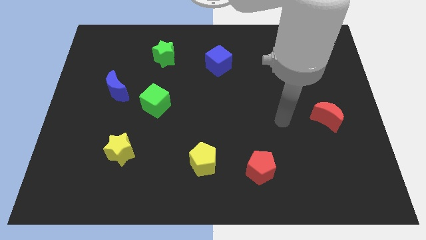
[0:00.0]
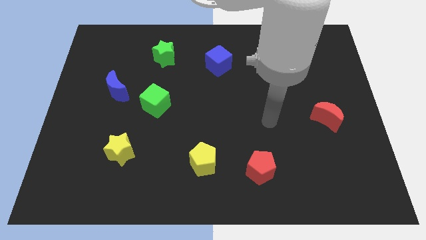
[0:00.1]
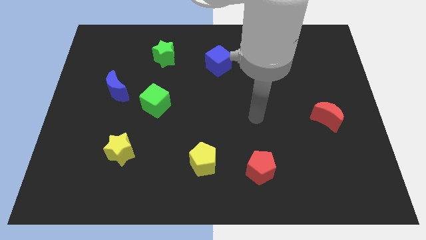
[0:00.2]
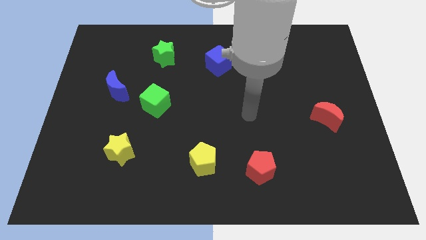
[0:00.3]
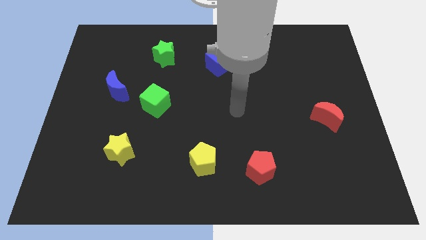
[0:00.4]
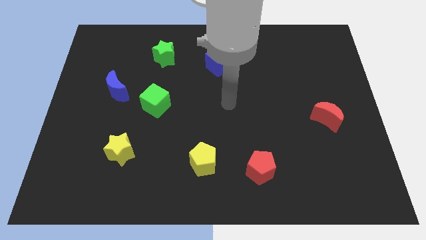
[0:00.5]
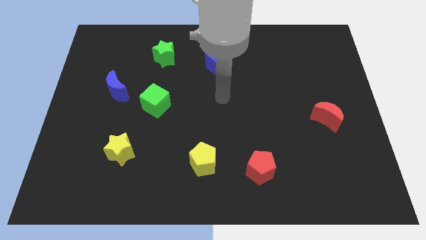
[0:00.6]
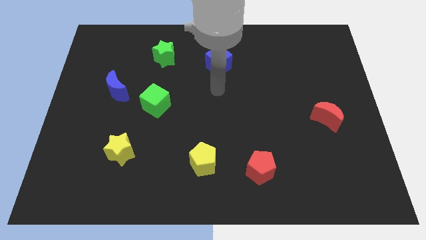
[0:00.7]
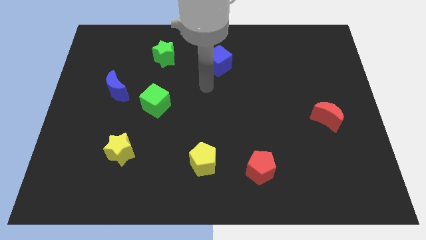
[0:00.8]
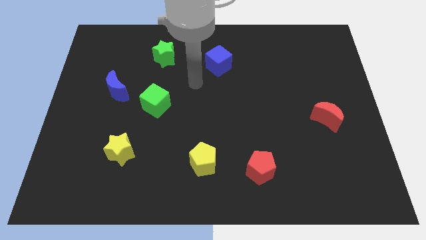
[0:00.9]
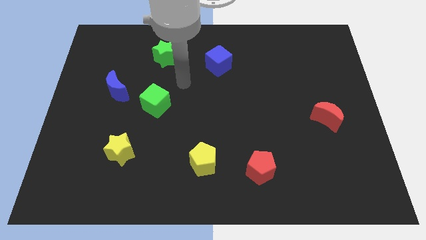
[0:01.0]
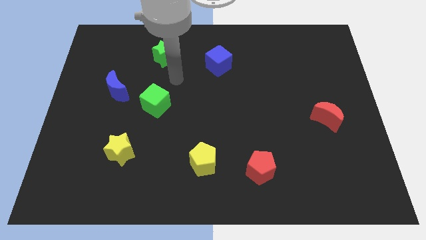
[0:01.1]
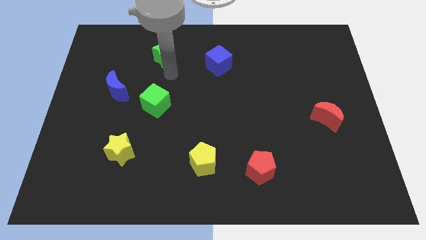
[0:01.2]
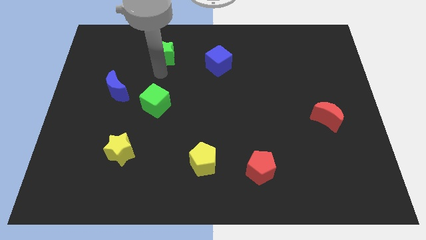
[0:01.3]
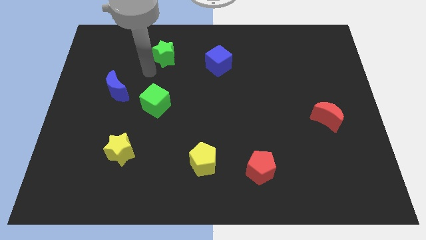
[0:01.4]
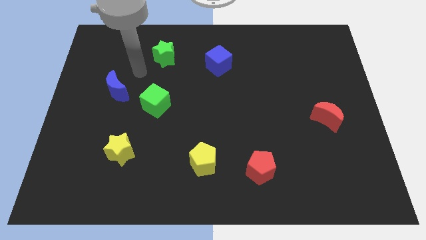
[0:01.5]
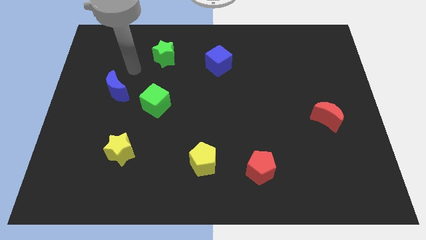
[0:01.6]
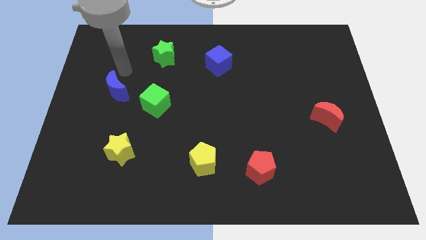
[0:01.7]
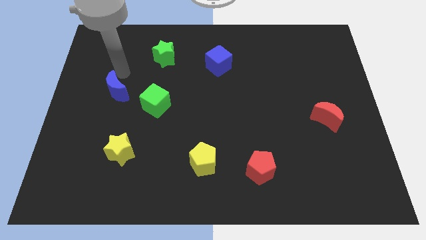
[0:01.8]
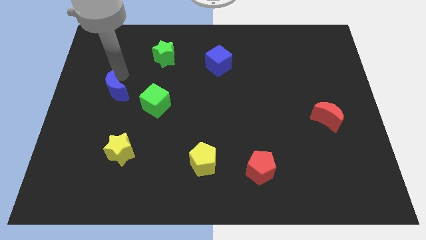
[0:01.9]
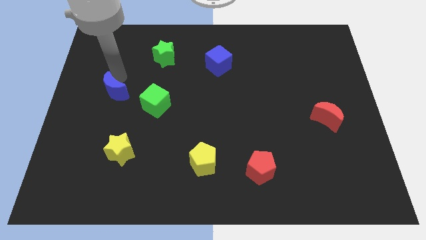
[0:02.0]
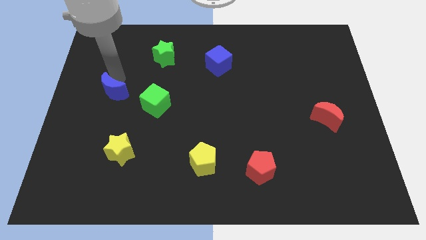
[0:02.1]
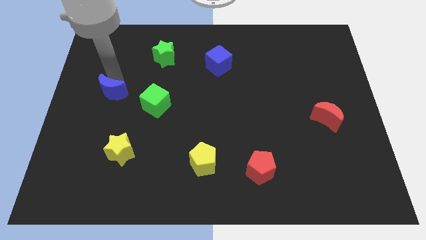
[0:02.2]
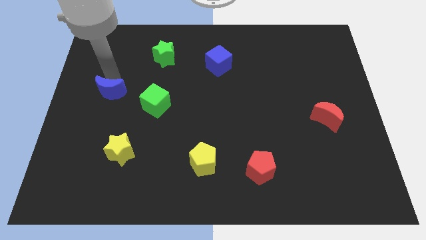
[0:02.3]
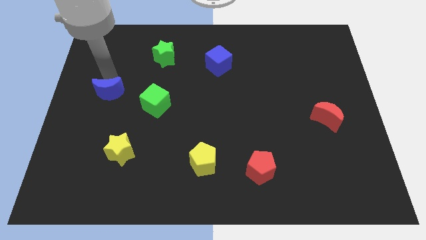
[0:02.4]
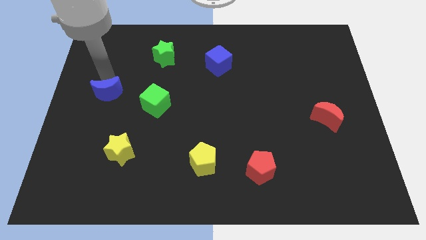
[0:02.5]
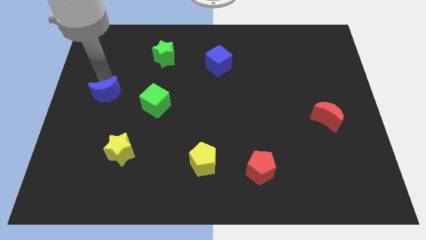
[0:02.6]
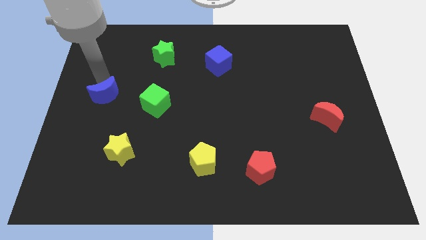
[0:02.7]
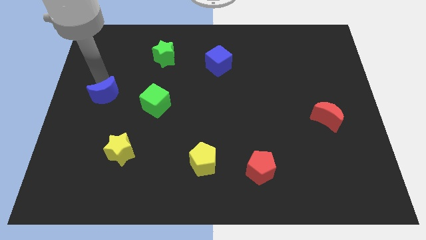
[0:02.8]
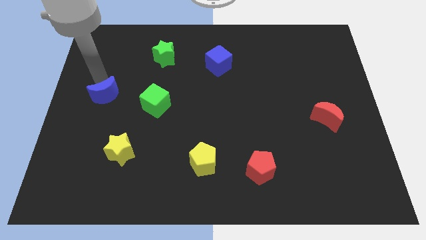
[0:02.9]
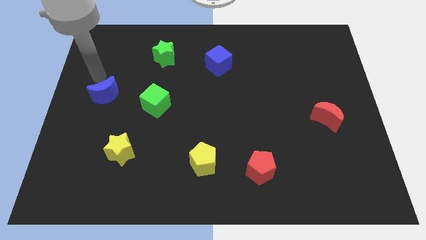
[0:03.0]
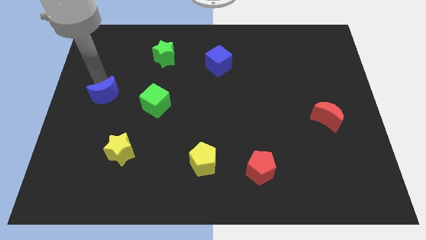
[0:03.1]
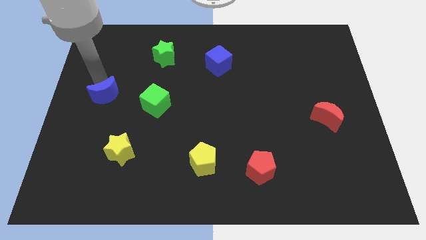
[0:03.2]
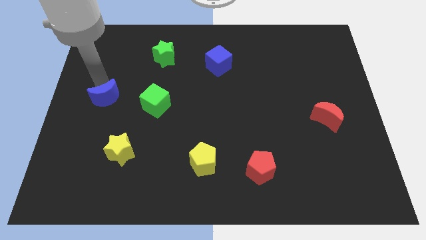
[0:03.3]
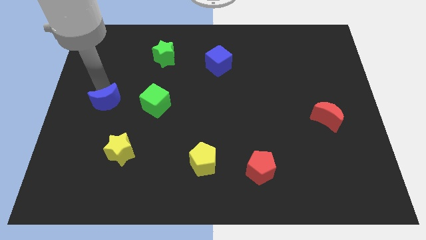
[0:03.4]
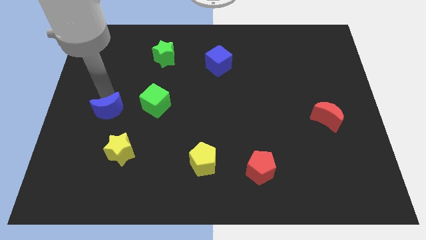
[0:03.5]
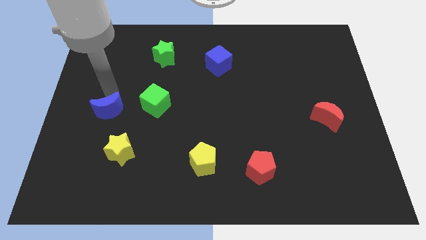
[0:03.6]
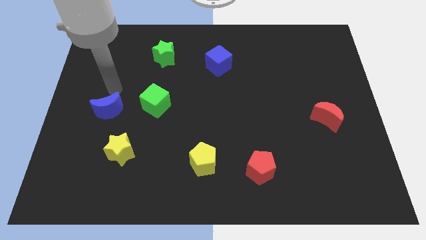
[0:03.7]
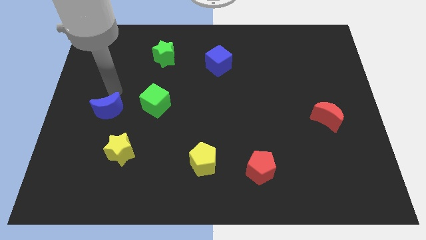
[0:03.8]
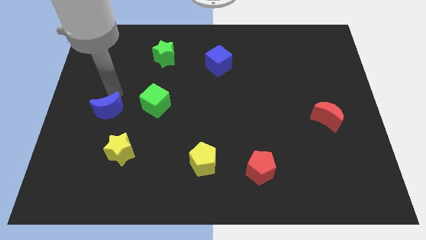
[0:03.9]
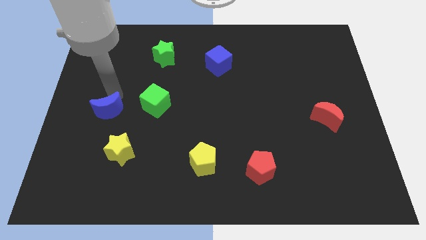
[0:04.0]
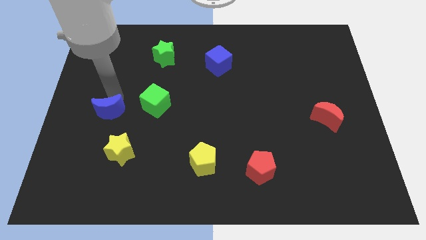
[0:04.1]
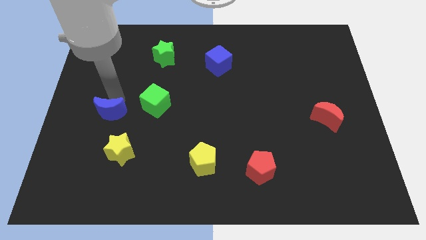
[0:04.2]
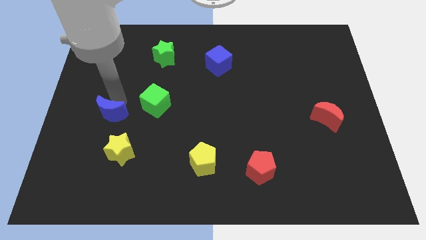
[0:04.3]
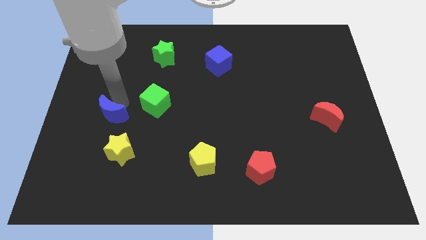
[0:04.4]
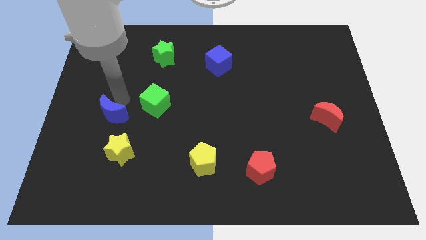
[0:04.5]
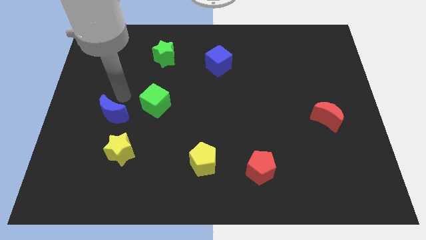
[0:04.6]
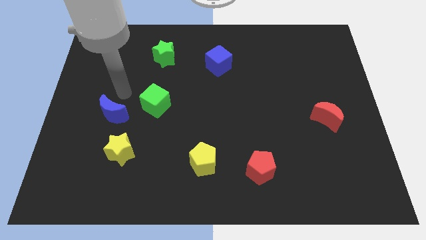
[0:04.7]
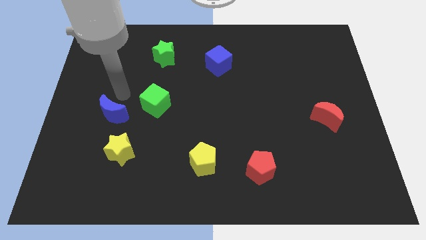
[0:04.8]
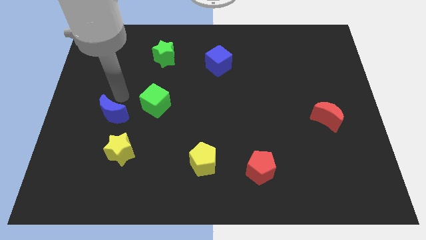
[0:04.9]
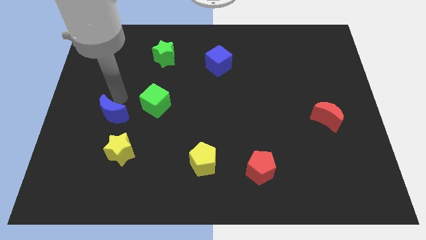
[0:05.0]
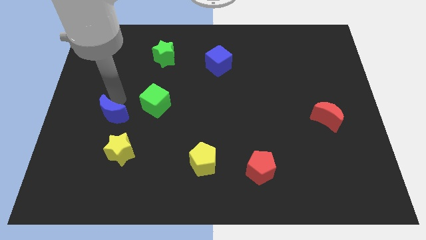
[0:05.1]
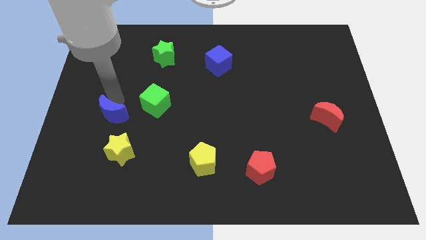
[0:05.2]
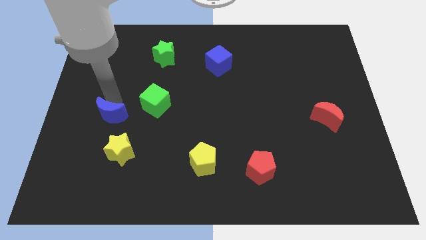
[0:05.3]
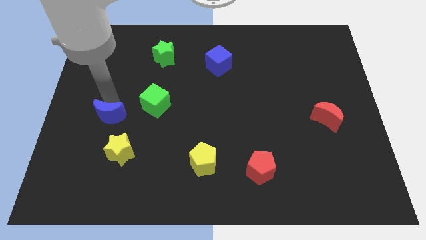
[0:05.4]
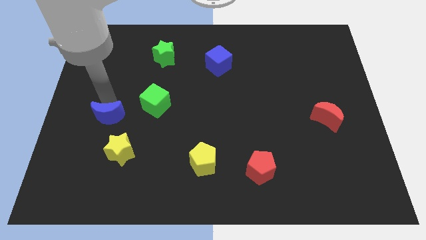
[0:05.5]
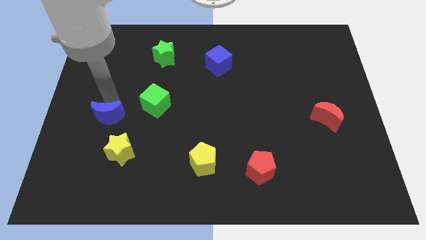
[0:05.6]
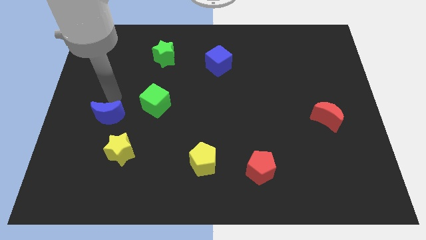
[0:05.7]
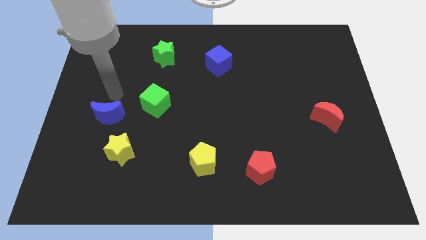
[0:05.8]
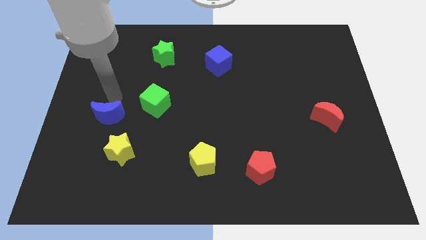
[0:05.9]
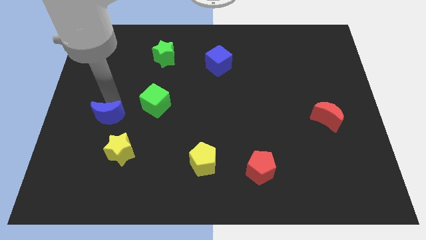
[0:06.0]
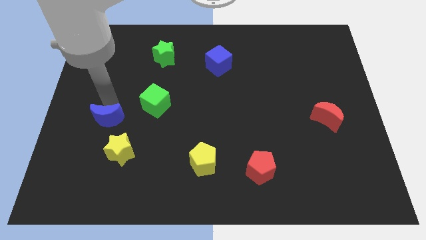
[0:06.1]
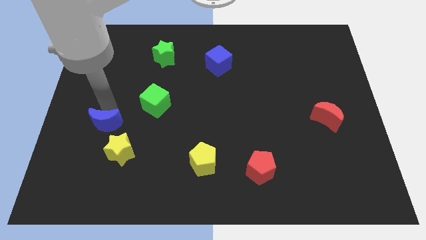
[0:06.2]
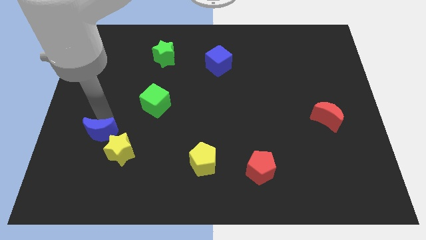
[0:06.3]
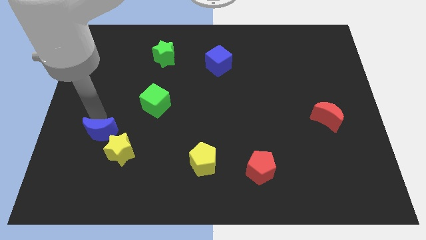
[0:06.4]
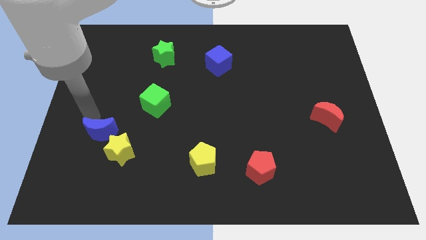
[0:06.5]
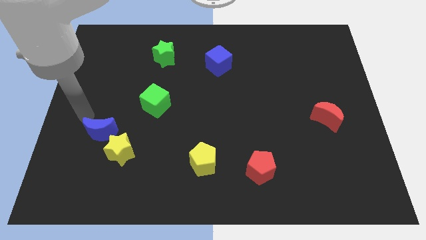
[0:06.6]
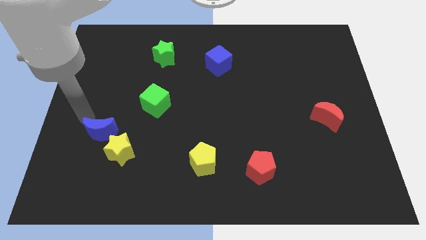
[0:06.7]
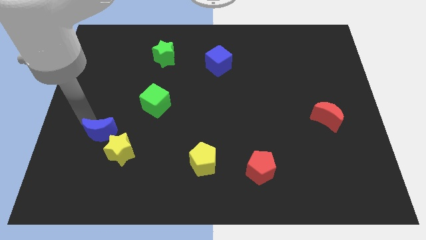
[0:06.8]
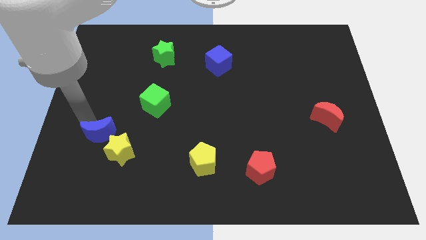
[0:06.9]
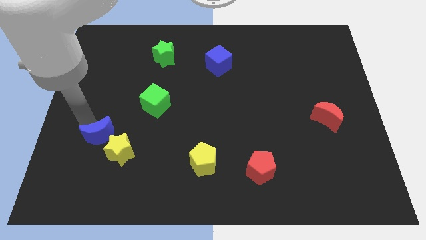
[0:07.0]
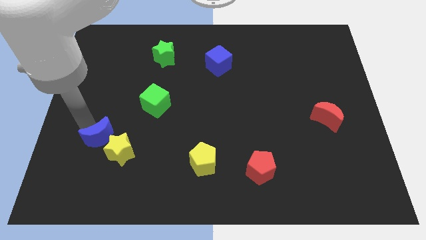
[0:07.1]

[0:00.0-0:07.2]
push the blue moon next to the yellow star

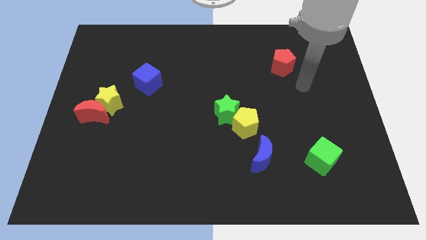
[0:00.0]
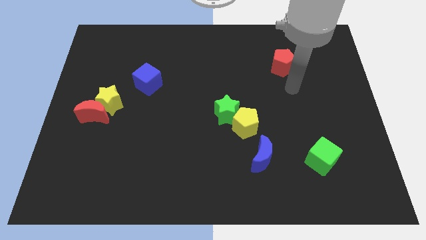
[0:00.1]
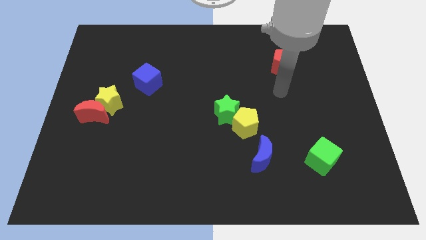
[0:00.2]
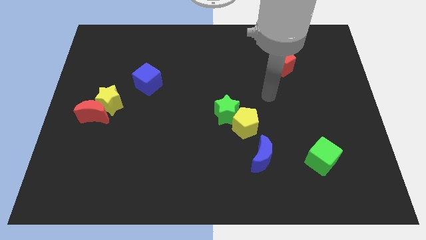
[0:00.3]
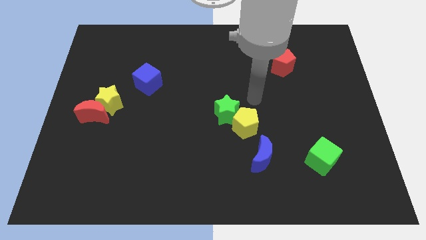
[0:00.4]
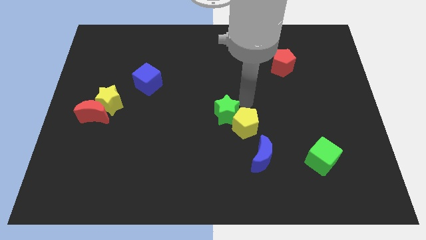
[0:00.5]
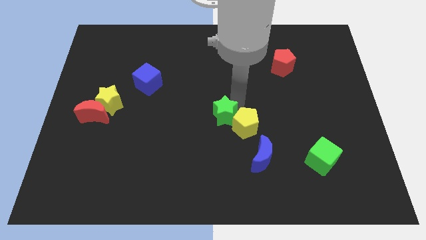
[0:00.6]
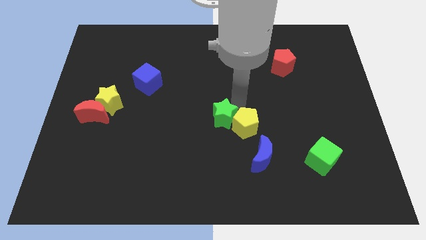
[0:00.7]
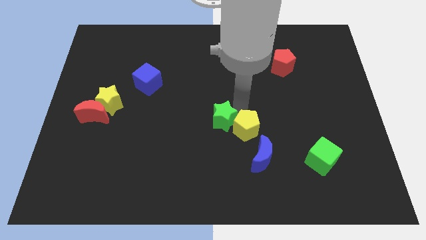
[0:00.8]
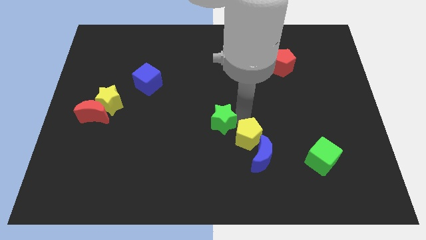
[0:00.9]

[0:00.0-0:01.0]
push the yellow pentagon next to the blue moon
